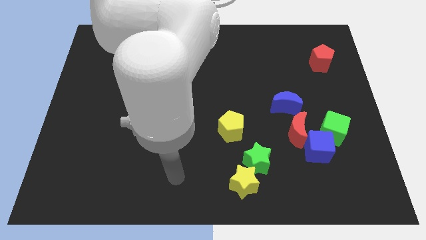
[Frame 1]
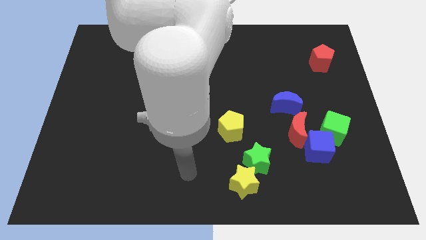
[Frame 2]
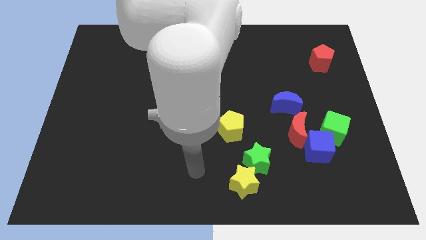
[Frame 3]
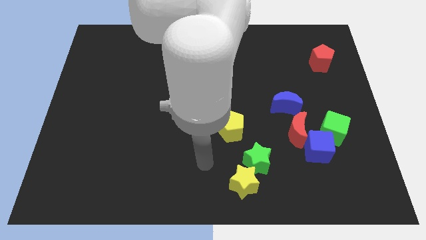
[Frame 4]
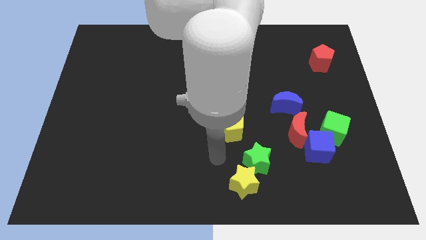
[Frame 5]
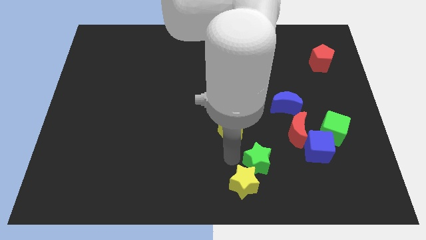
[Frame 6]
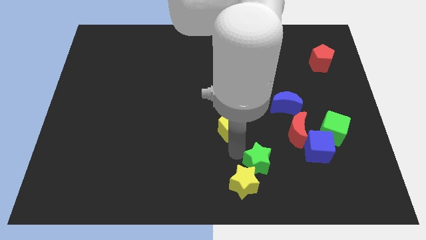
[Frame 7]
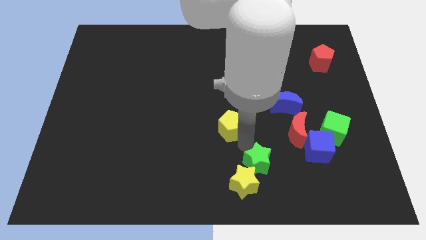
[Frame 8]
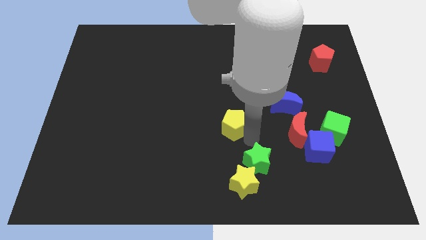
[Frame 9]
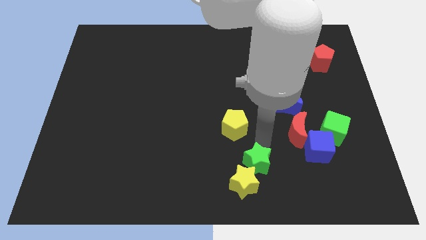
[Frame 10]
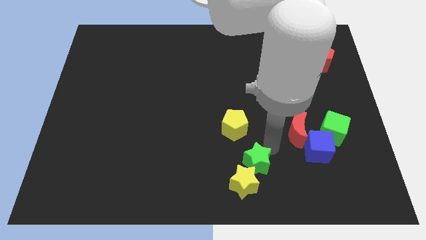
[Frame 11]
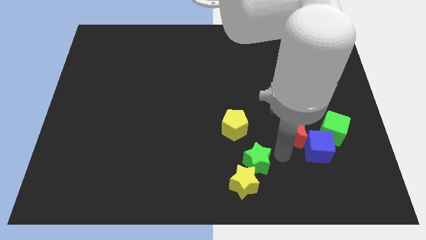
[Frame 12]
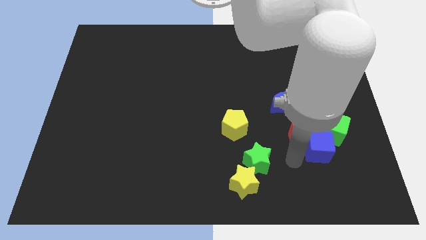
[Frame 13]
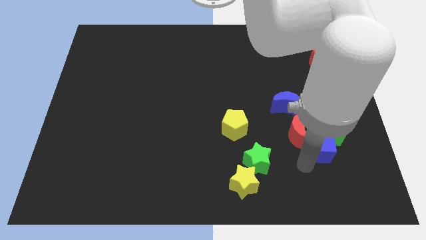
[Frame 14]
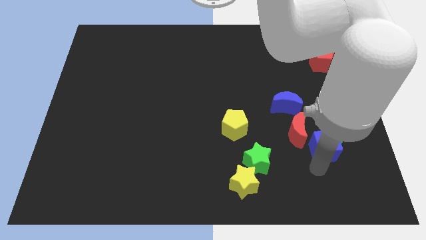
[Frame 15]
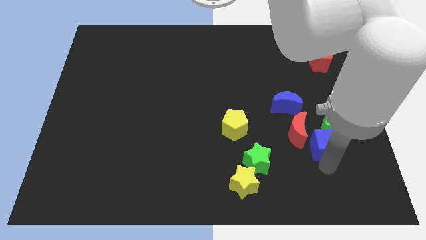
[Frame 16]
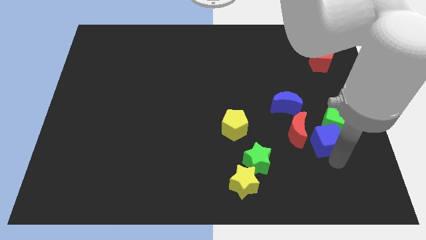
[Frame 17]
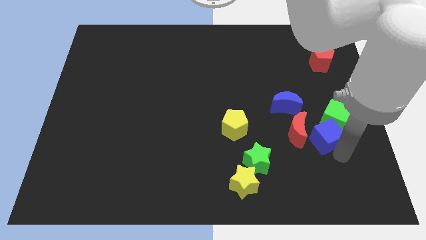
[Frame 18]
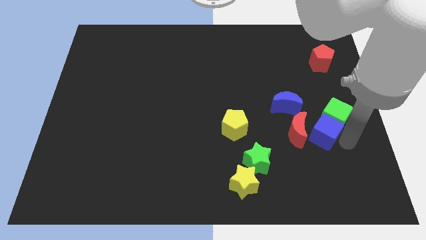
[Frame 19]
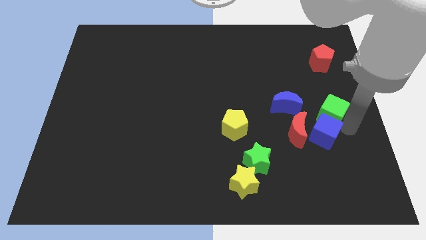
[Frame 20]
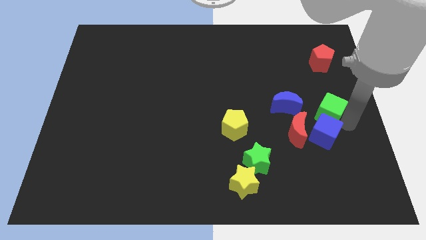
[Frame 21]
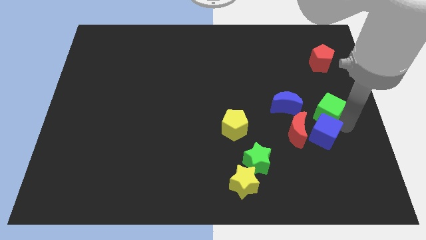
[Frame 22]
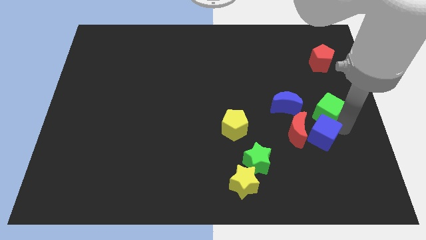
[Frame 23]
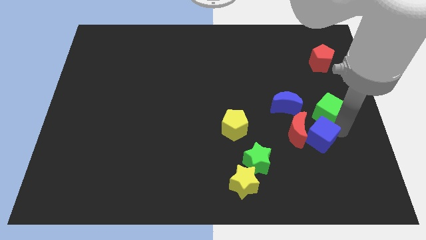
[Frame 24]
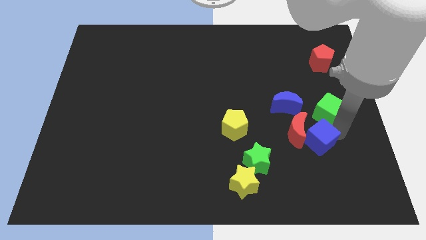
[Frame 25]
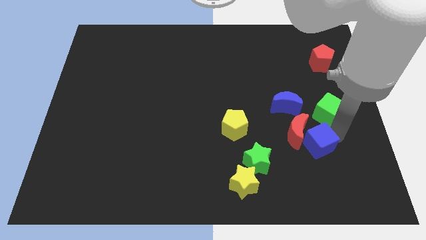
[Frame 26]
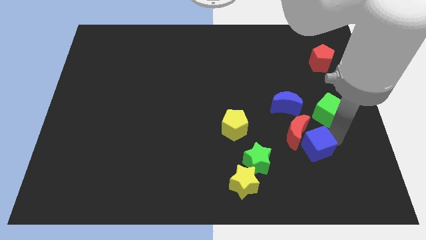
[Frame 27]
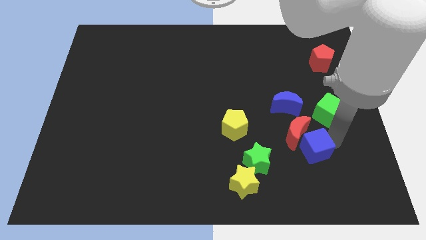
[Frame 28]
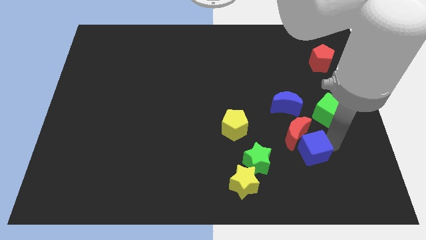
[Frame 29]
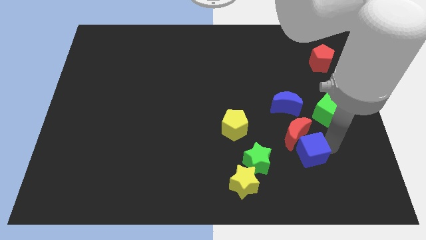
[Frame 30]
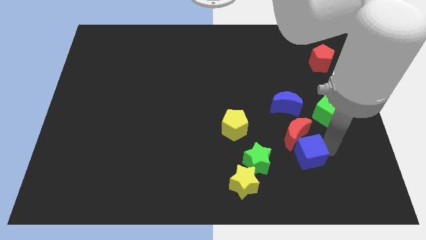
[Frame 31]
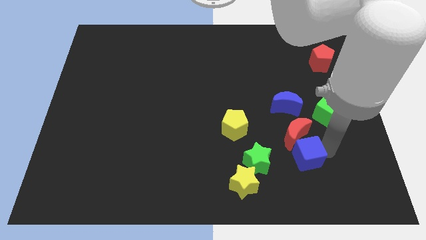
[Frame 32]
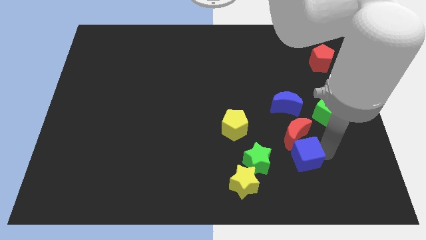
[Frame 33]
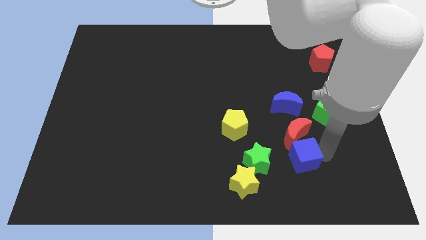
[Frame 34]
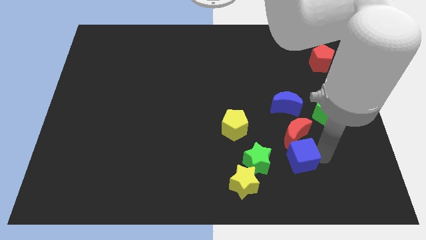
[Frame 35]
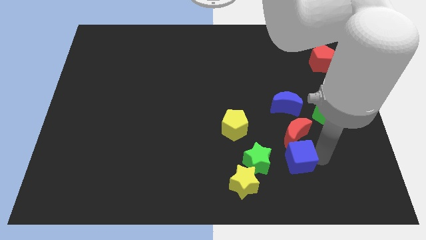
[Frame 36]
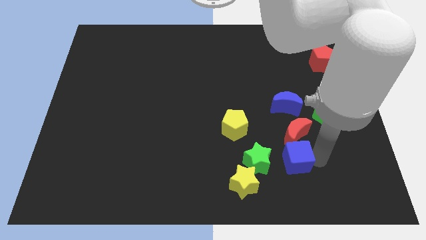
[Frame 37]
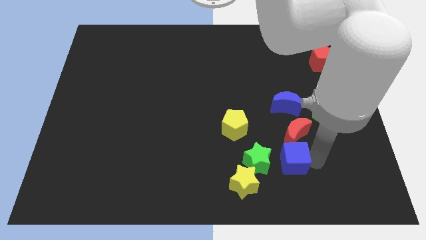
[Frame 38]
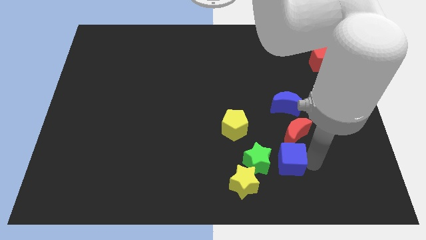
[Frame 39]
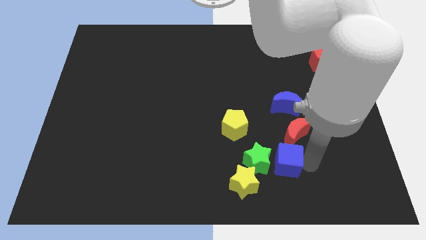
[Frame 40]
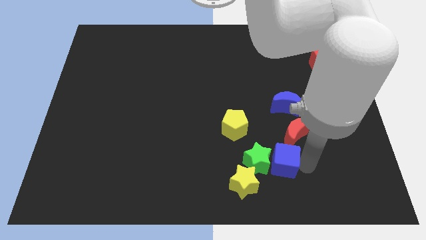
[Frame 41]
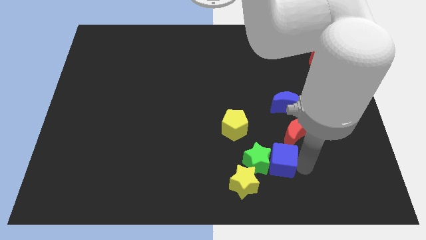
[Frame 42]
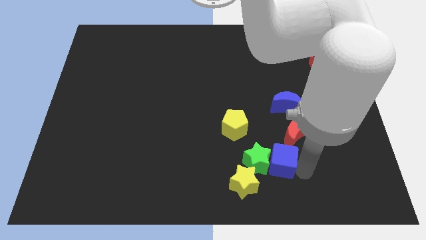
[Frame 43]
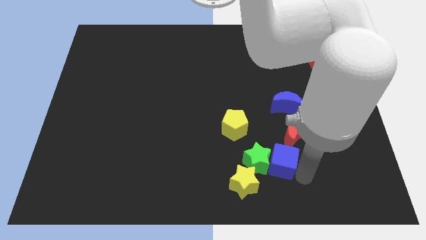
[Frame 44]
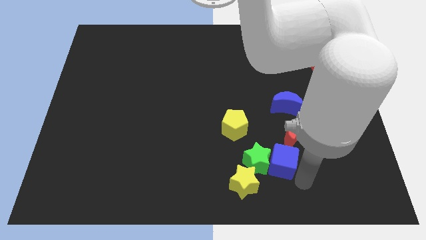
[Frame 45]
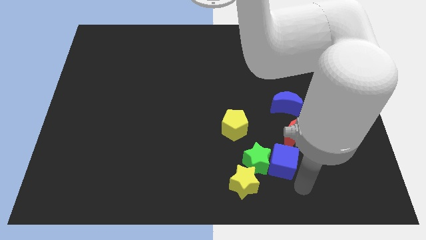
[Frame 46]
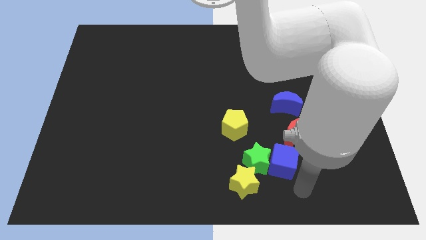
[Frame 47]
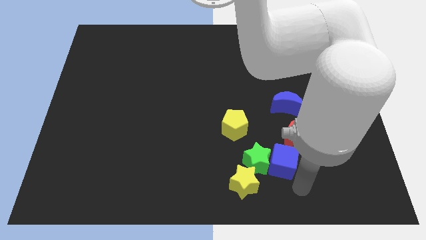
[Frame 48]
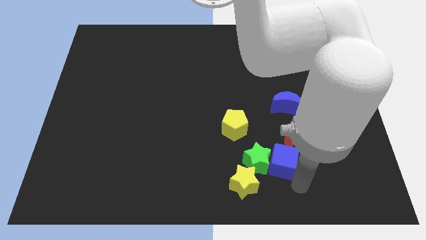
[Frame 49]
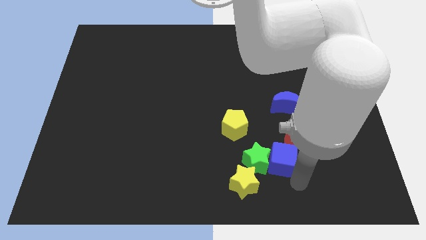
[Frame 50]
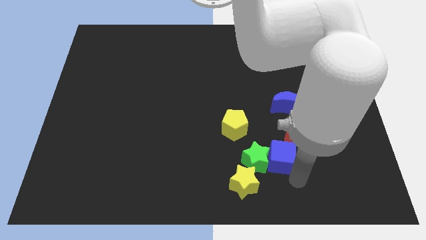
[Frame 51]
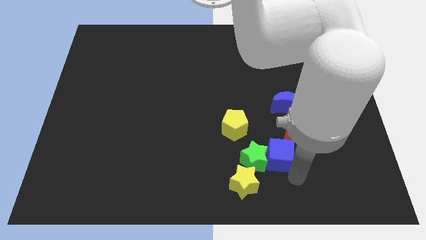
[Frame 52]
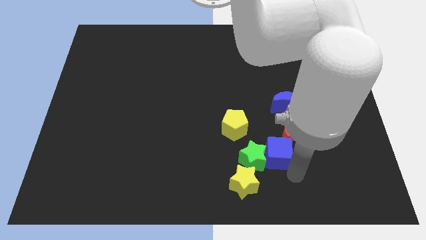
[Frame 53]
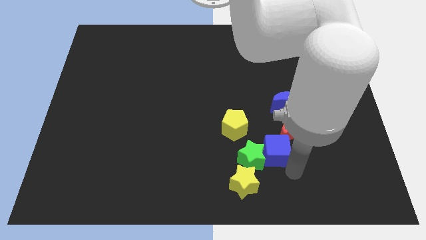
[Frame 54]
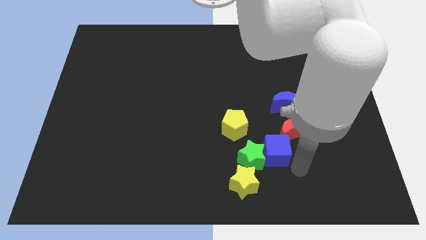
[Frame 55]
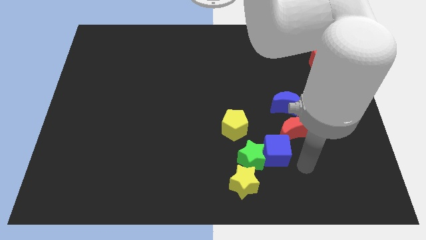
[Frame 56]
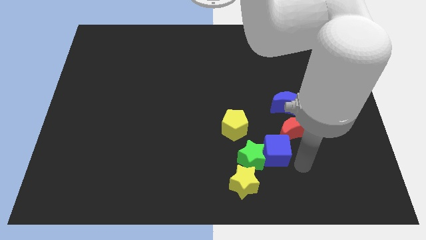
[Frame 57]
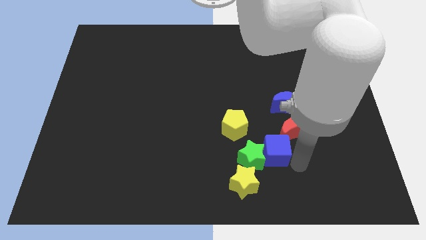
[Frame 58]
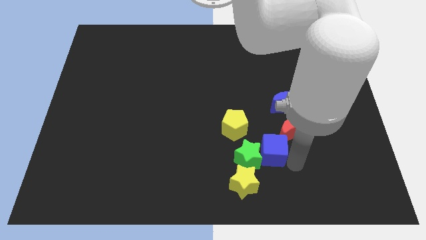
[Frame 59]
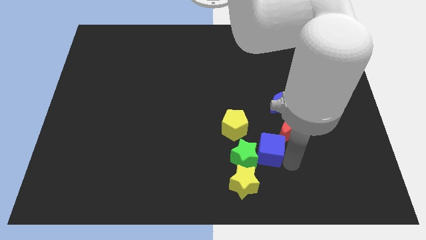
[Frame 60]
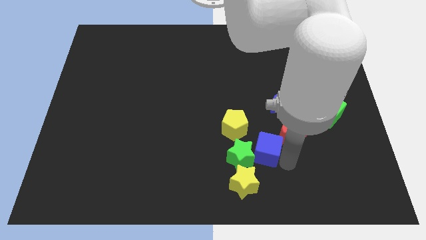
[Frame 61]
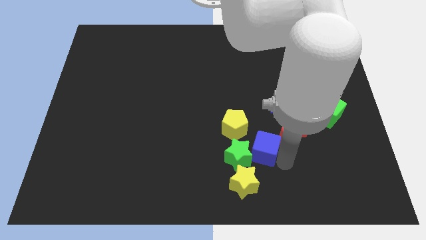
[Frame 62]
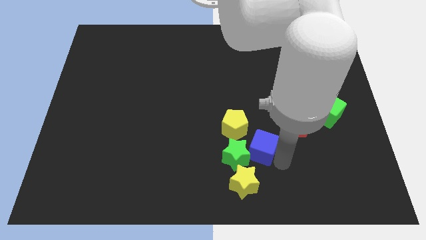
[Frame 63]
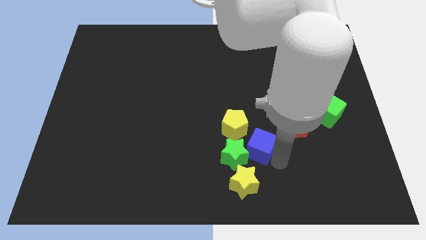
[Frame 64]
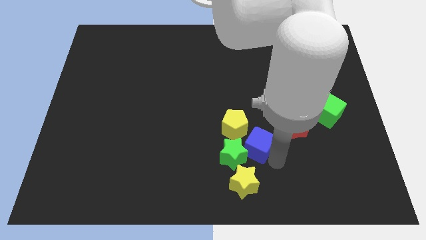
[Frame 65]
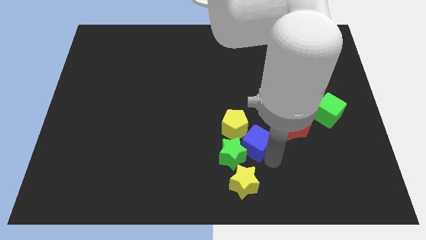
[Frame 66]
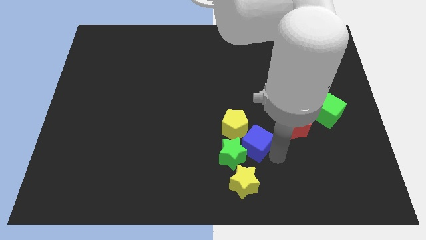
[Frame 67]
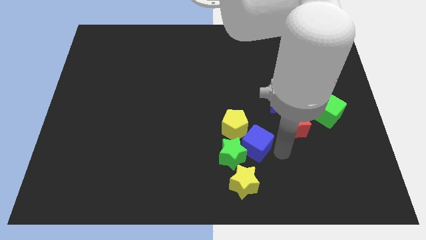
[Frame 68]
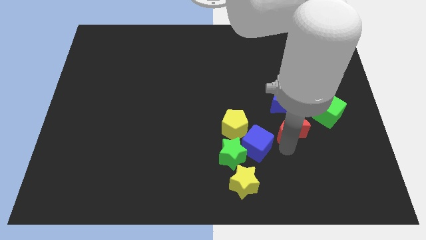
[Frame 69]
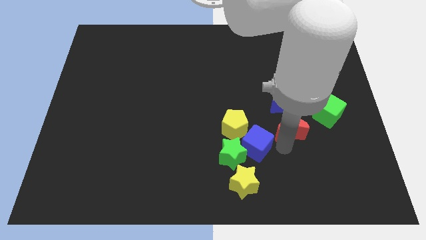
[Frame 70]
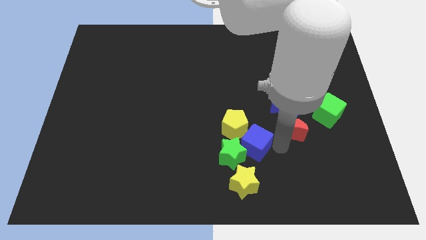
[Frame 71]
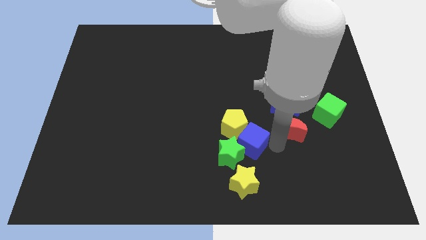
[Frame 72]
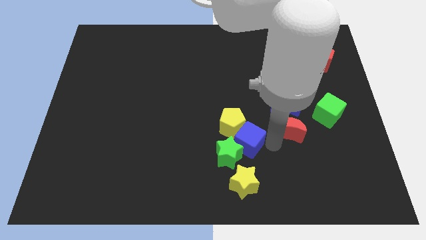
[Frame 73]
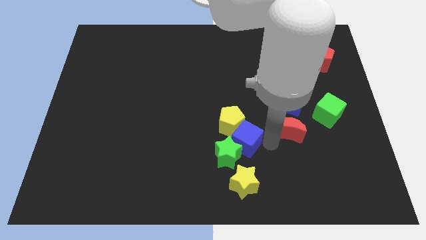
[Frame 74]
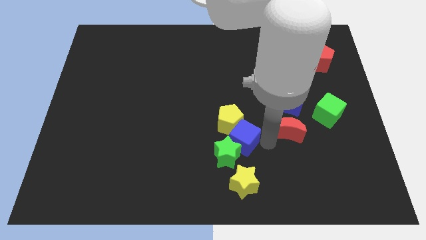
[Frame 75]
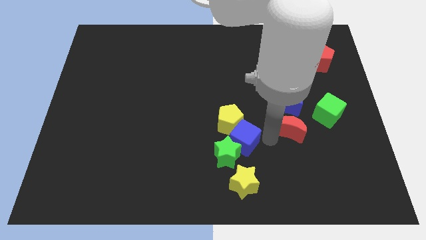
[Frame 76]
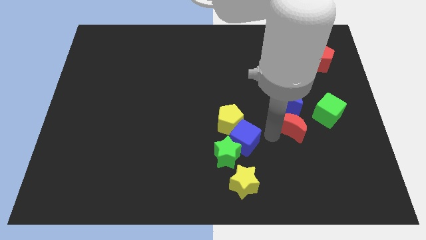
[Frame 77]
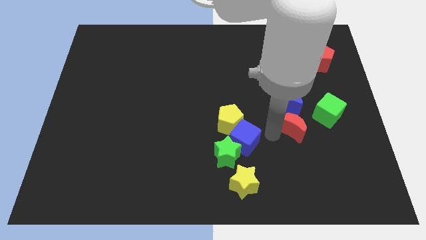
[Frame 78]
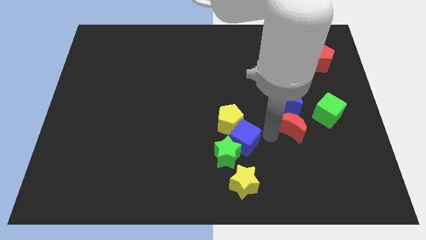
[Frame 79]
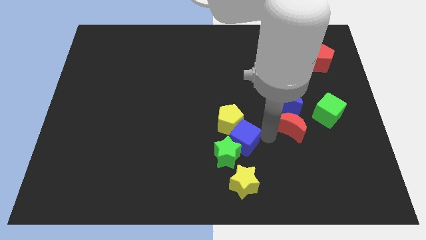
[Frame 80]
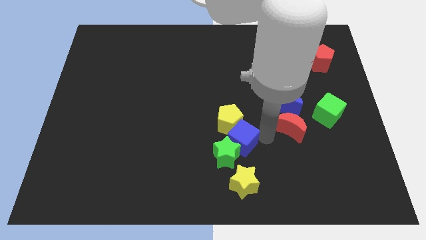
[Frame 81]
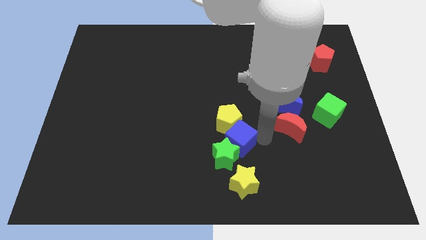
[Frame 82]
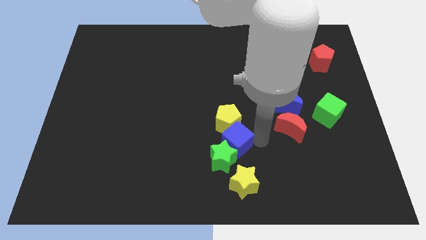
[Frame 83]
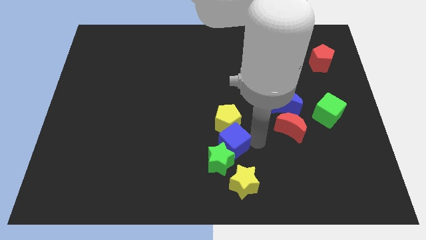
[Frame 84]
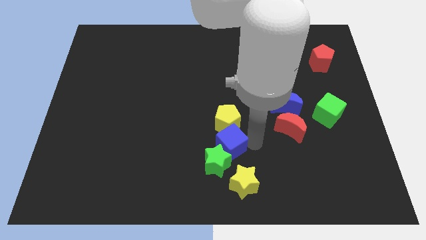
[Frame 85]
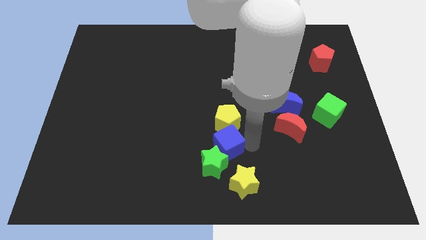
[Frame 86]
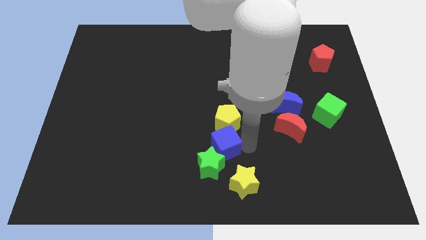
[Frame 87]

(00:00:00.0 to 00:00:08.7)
push the blue cube left
